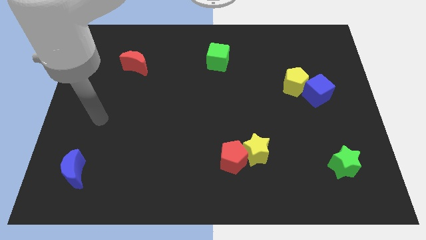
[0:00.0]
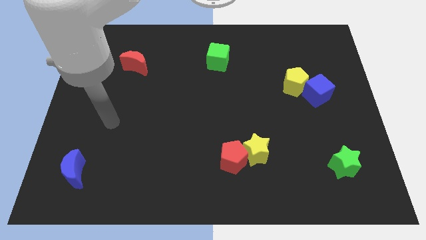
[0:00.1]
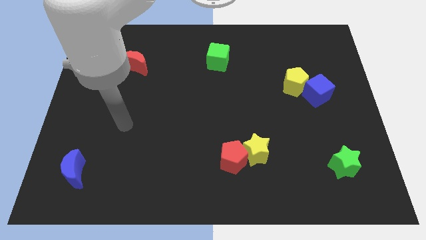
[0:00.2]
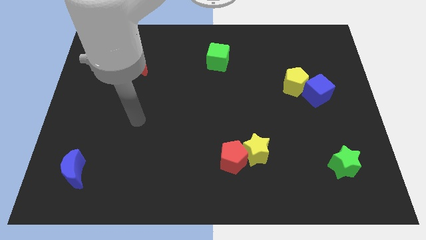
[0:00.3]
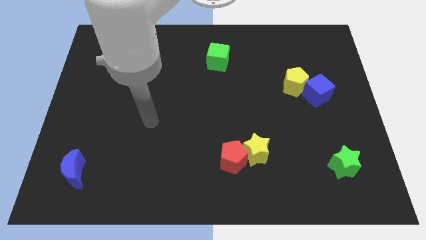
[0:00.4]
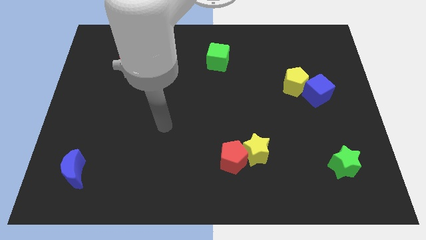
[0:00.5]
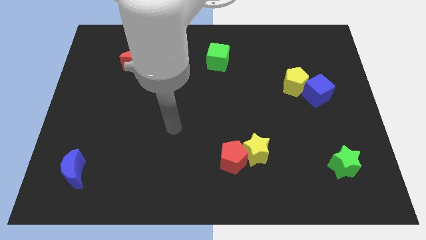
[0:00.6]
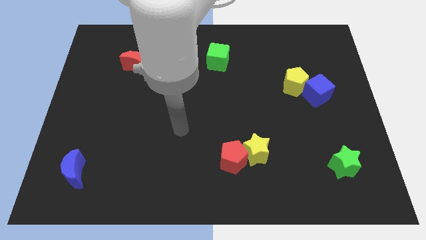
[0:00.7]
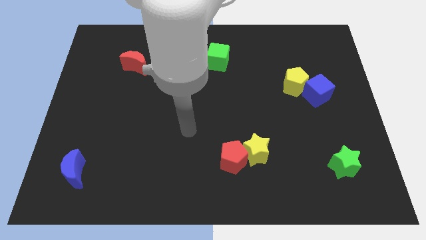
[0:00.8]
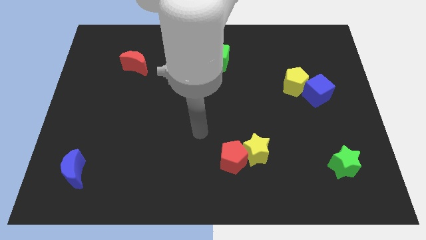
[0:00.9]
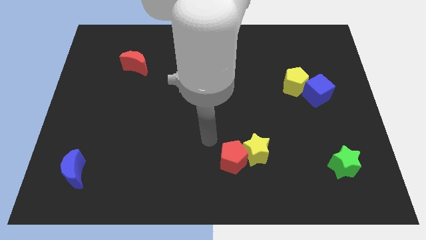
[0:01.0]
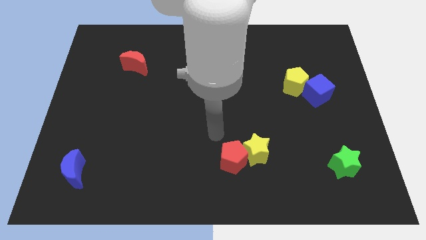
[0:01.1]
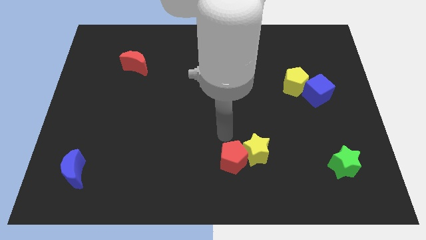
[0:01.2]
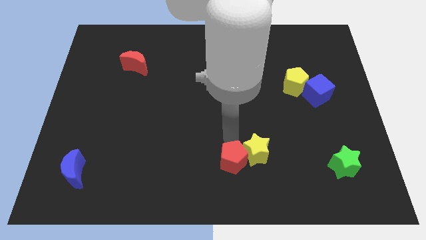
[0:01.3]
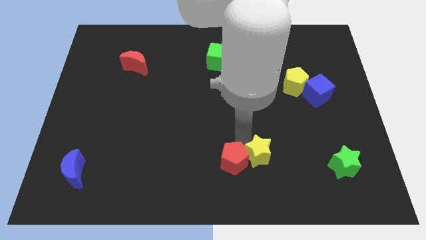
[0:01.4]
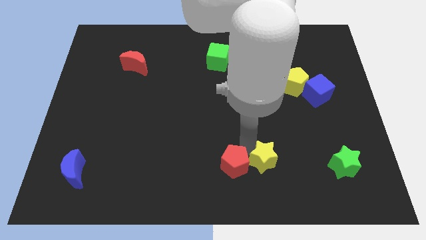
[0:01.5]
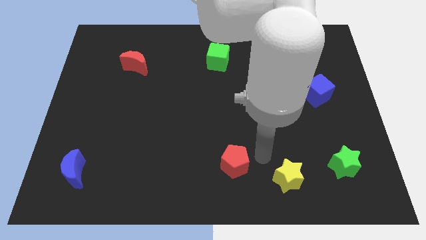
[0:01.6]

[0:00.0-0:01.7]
separate the red pentagon from the yellow star

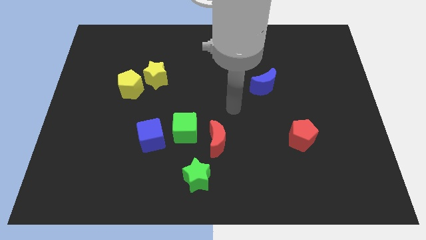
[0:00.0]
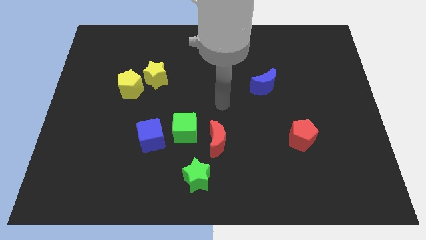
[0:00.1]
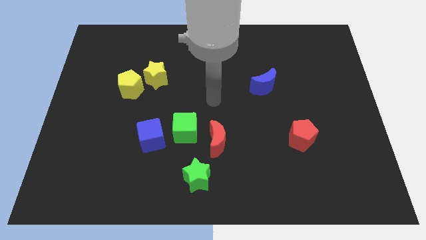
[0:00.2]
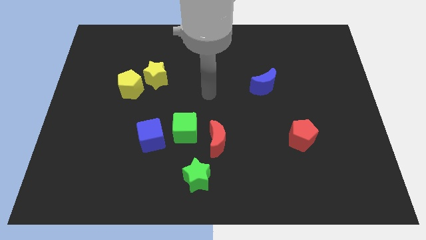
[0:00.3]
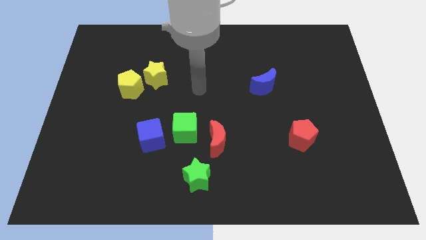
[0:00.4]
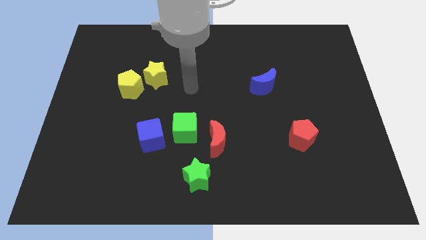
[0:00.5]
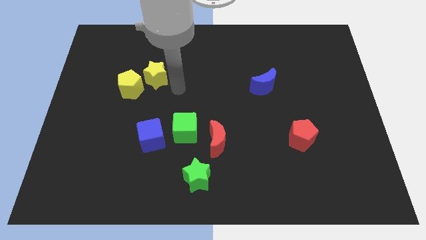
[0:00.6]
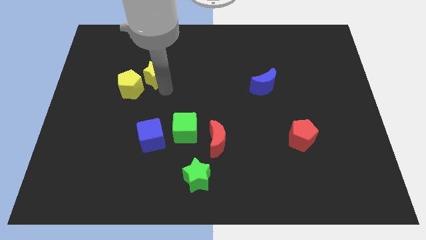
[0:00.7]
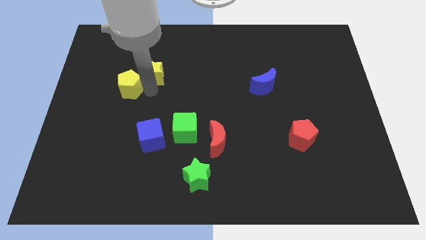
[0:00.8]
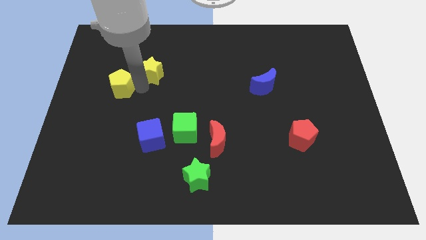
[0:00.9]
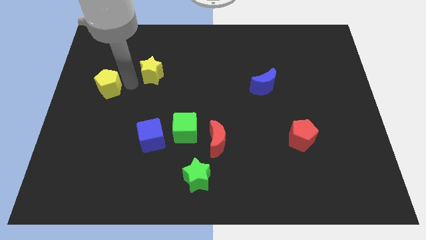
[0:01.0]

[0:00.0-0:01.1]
separate the yellow star from the yellow pentagon

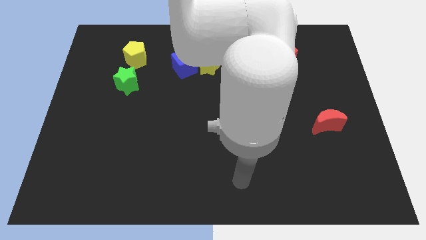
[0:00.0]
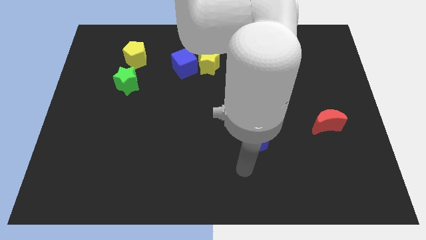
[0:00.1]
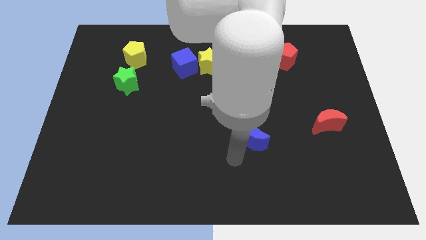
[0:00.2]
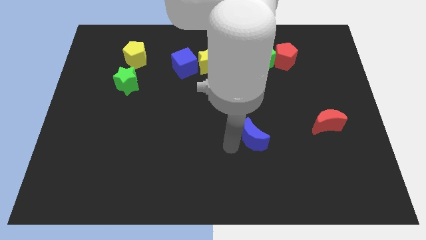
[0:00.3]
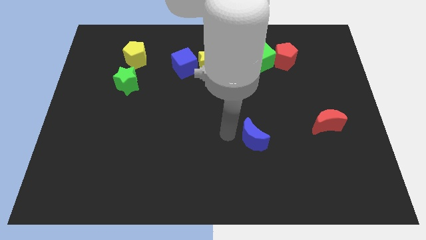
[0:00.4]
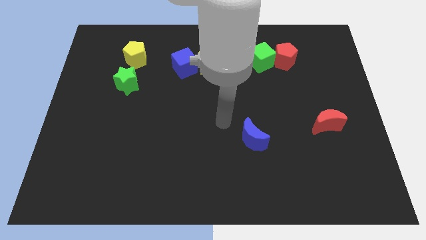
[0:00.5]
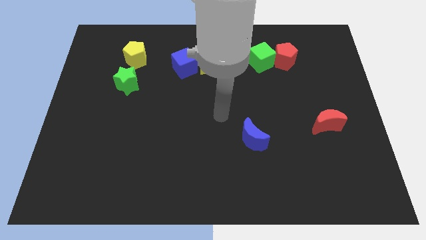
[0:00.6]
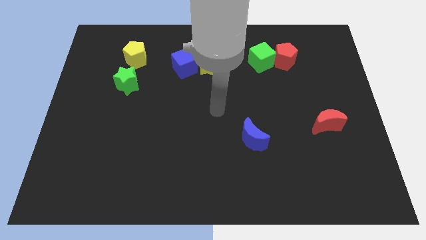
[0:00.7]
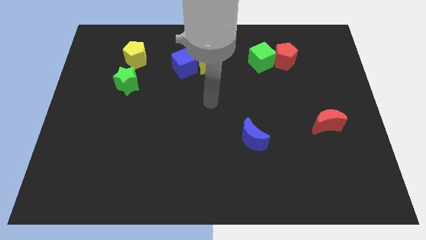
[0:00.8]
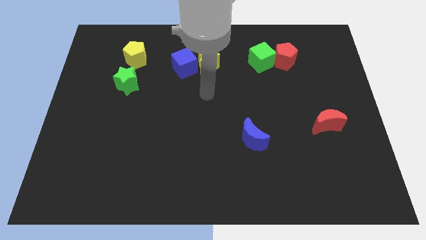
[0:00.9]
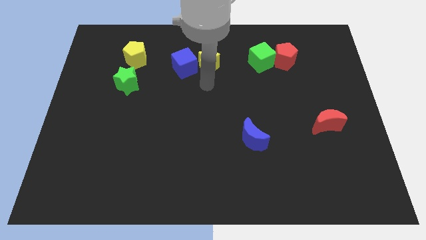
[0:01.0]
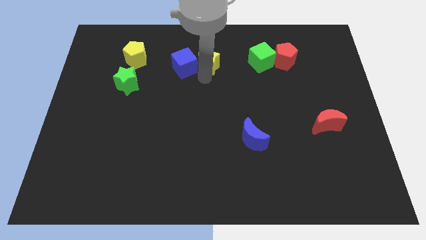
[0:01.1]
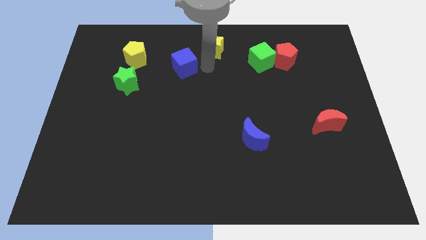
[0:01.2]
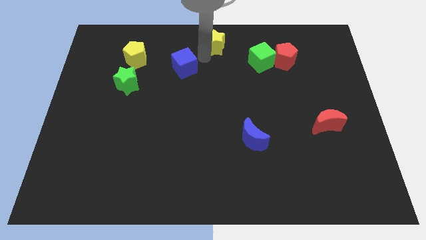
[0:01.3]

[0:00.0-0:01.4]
pull the blue cube apart from the yellow star

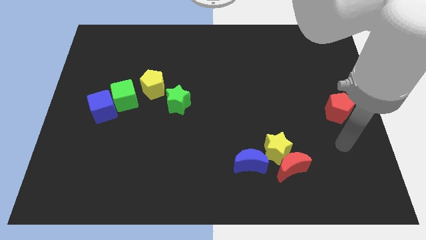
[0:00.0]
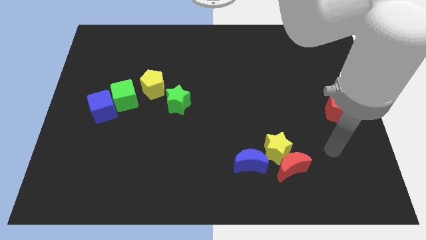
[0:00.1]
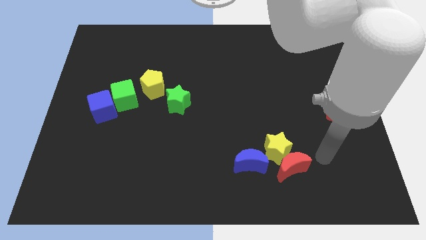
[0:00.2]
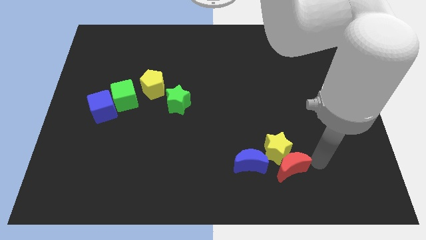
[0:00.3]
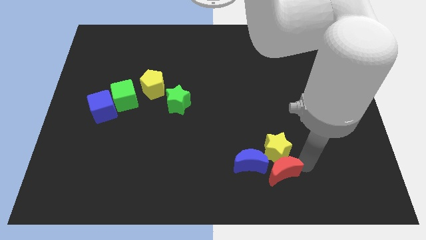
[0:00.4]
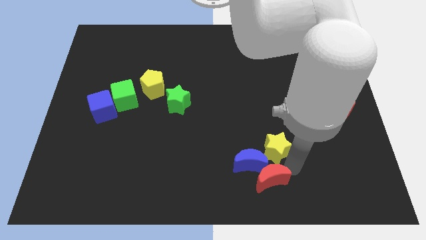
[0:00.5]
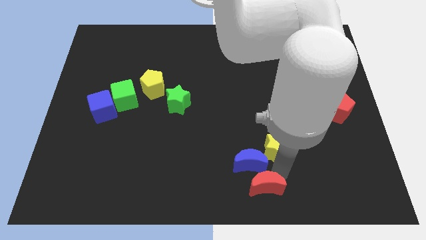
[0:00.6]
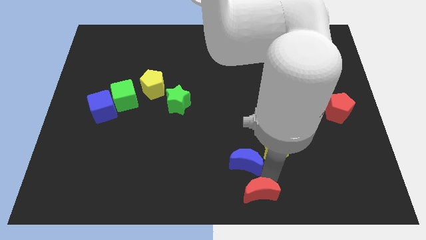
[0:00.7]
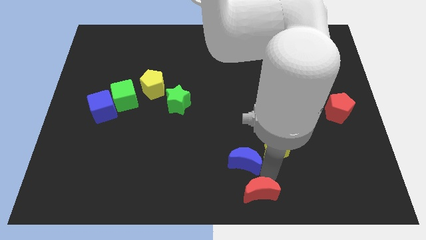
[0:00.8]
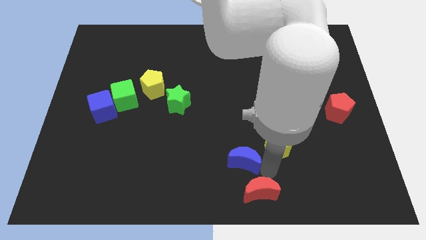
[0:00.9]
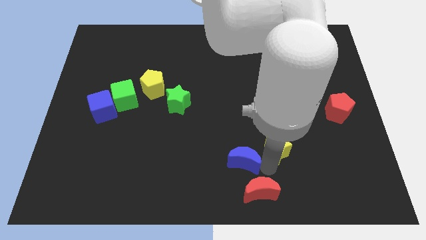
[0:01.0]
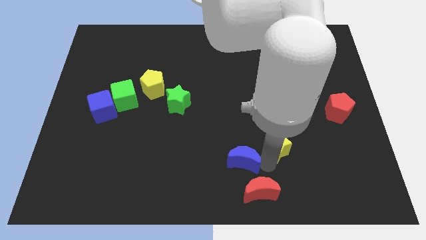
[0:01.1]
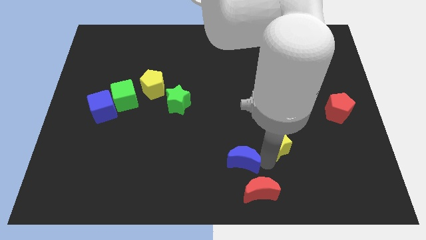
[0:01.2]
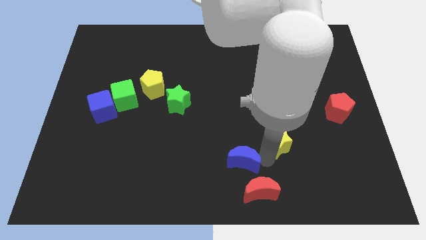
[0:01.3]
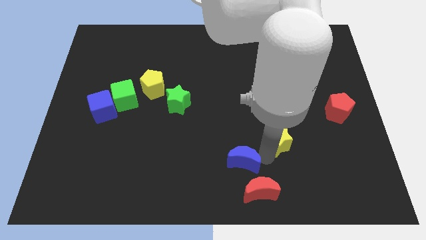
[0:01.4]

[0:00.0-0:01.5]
move the yellow star away from the red moon and blue moon

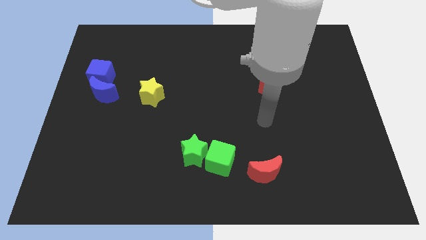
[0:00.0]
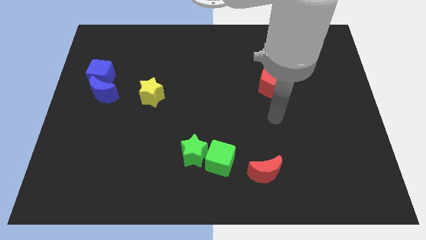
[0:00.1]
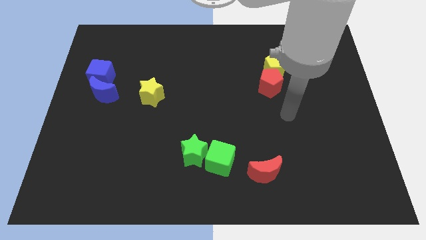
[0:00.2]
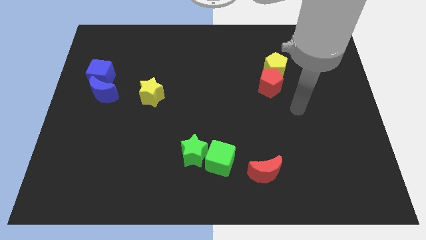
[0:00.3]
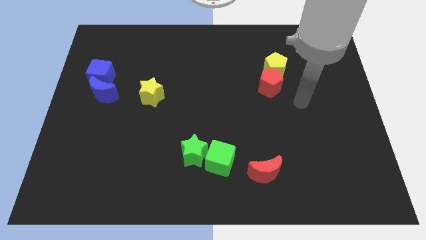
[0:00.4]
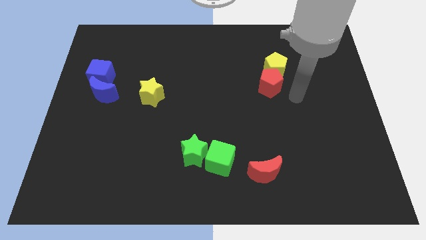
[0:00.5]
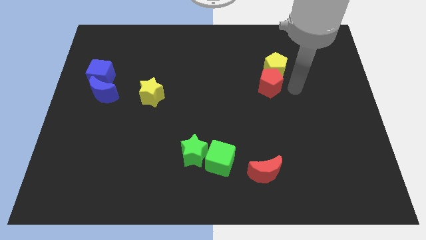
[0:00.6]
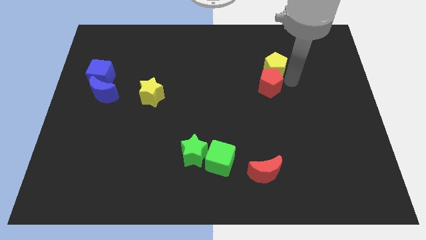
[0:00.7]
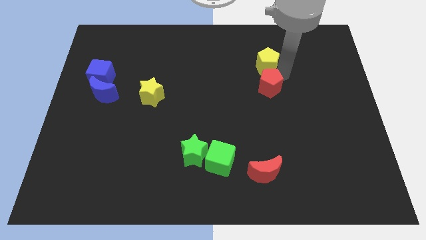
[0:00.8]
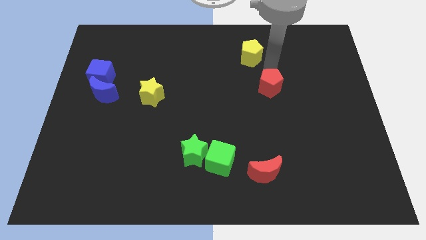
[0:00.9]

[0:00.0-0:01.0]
separate the red pentagon from the yellow pentagon

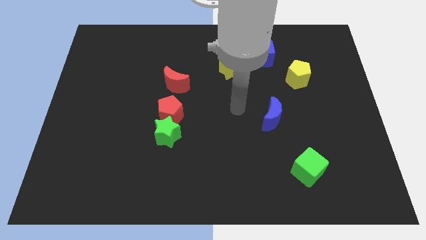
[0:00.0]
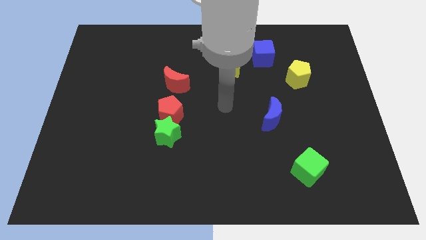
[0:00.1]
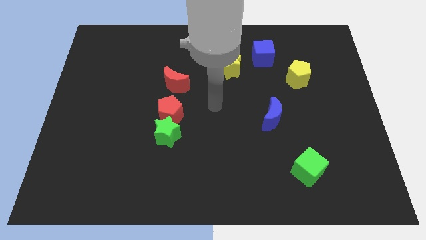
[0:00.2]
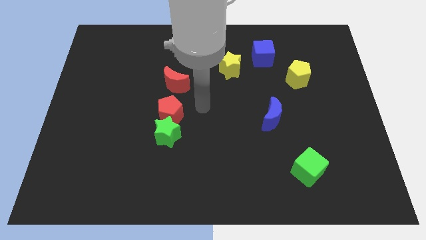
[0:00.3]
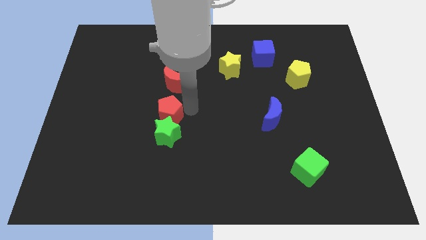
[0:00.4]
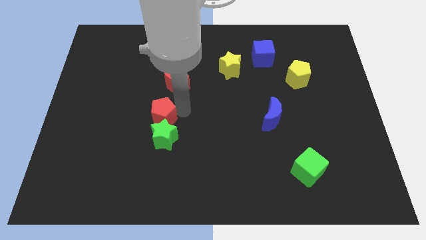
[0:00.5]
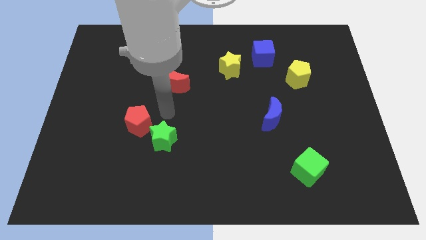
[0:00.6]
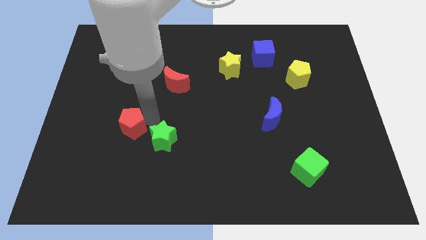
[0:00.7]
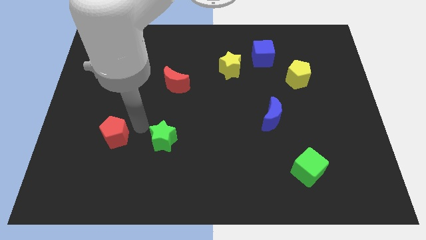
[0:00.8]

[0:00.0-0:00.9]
separate the green star from the red pentagon

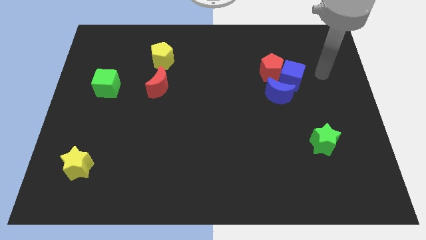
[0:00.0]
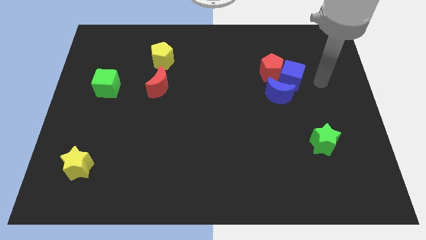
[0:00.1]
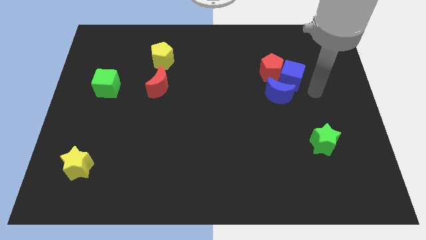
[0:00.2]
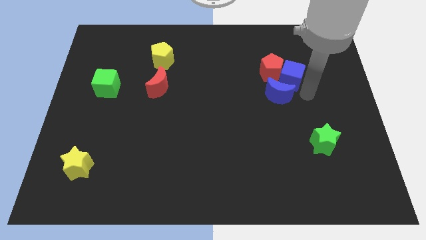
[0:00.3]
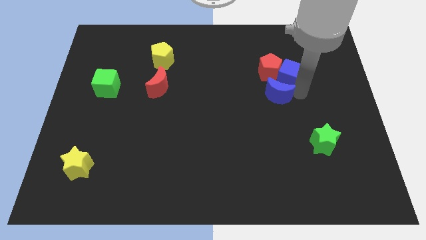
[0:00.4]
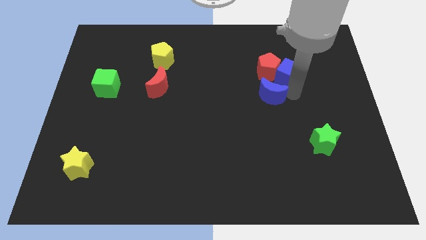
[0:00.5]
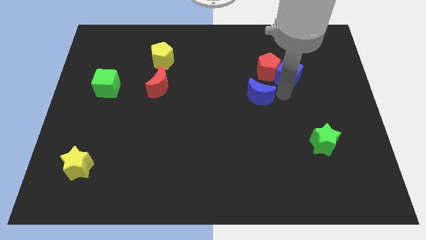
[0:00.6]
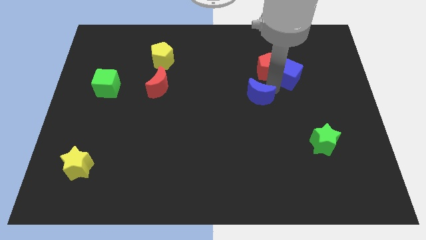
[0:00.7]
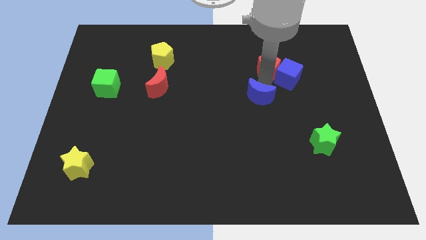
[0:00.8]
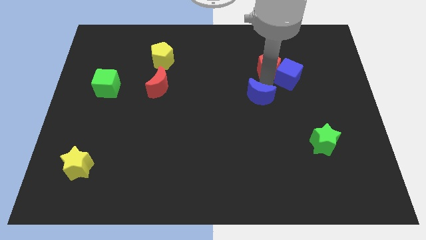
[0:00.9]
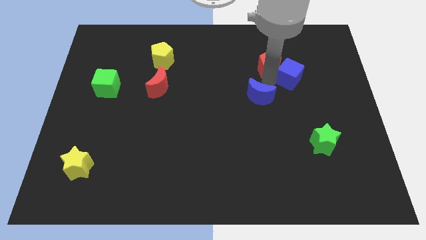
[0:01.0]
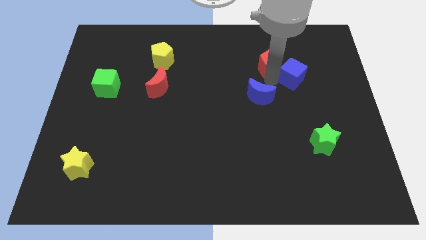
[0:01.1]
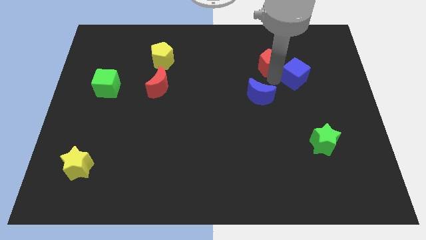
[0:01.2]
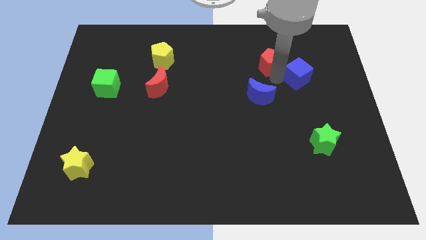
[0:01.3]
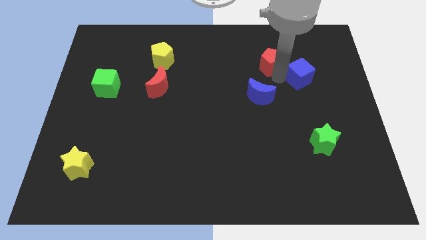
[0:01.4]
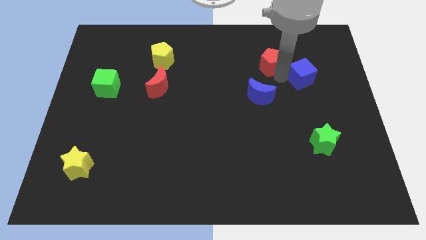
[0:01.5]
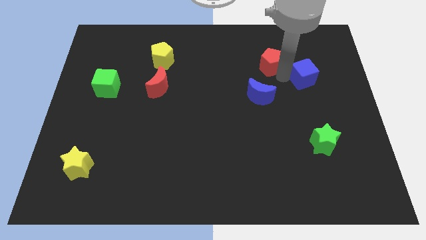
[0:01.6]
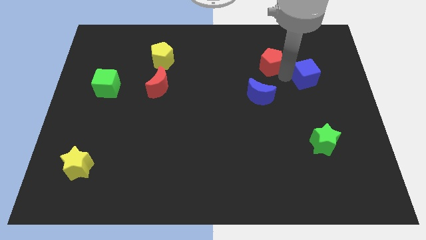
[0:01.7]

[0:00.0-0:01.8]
pull the blue cube apart from the red pentagon and blue moon
